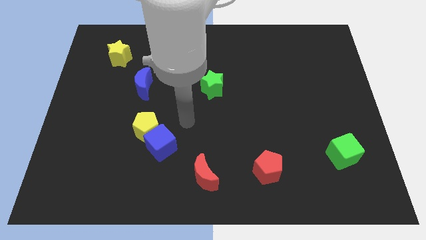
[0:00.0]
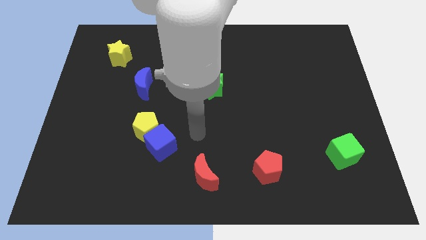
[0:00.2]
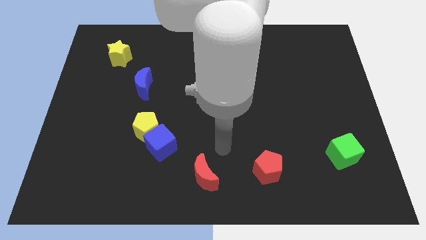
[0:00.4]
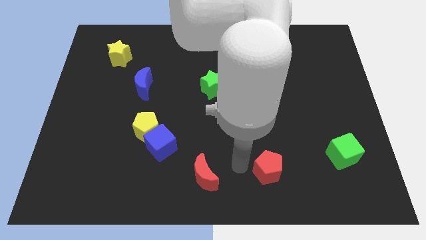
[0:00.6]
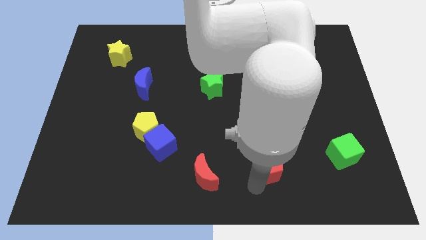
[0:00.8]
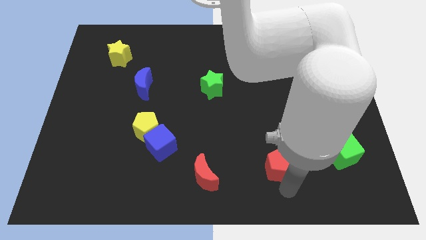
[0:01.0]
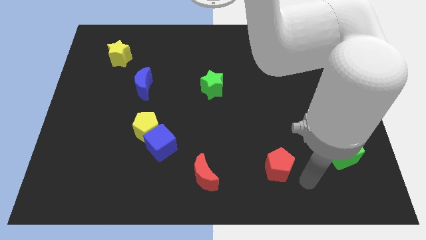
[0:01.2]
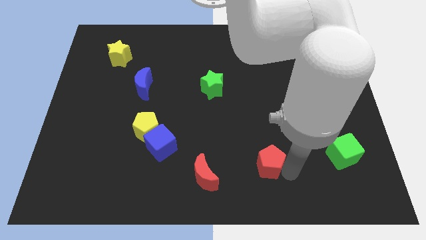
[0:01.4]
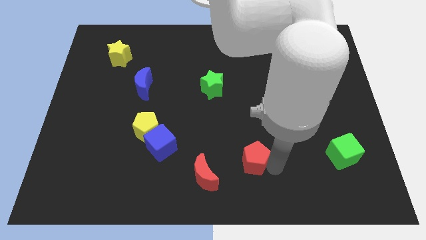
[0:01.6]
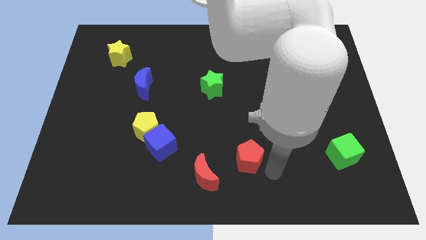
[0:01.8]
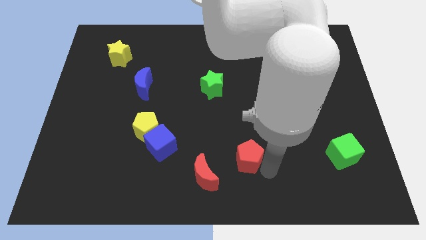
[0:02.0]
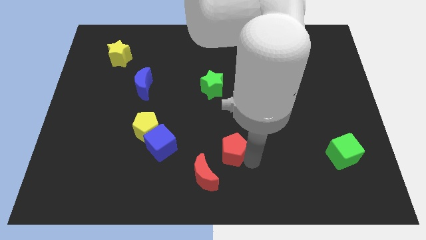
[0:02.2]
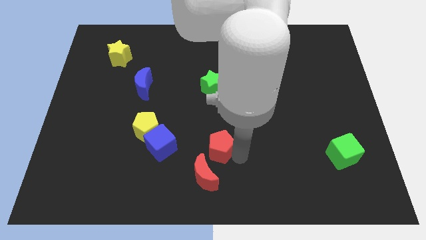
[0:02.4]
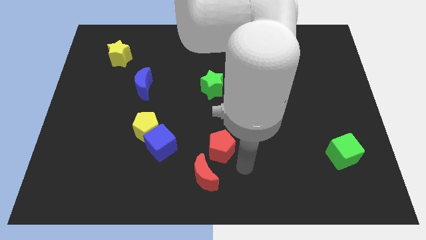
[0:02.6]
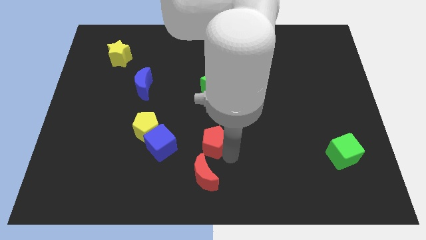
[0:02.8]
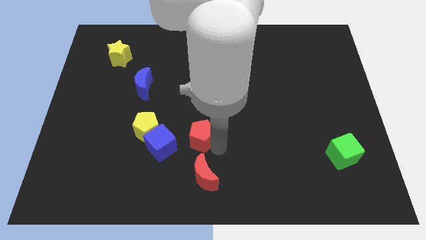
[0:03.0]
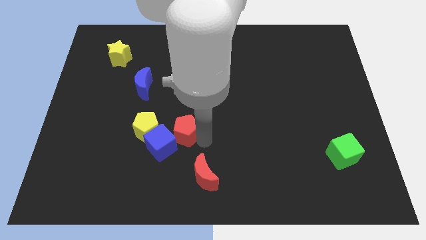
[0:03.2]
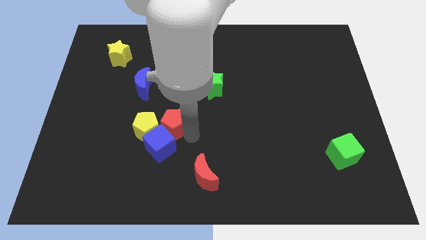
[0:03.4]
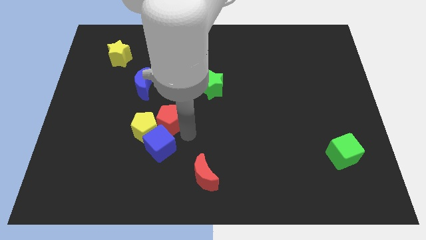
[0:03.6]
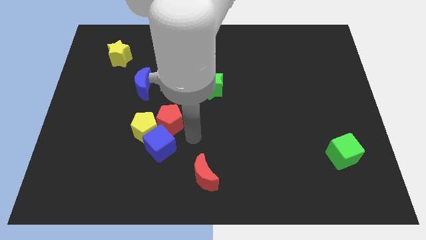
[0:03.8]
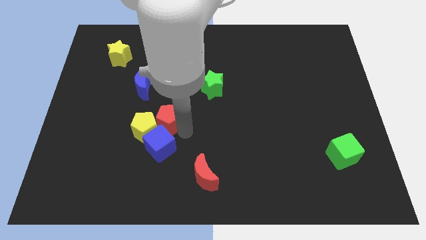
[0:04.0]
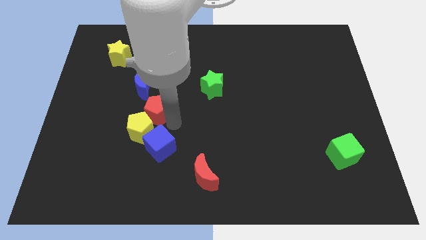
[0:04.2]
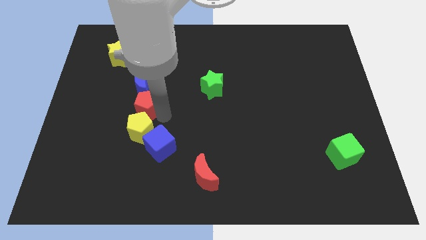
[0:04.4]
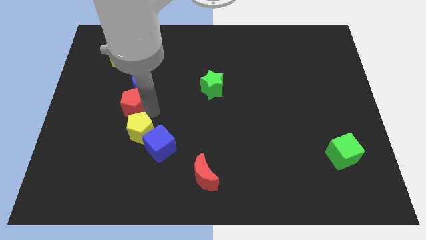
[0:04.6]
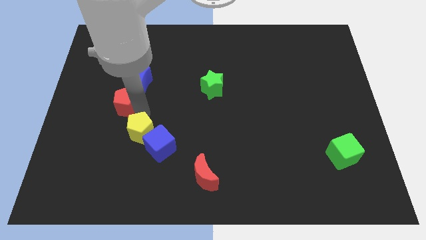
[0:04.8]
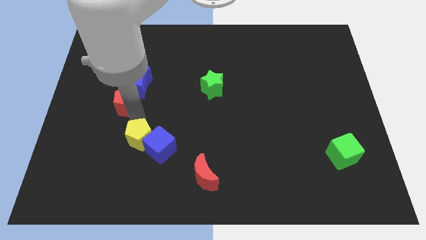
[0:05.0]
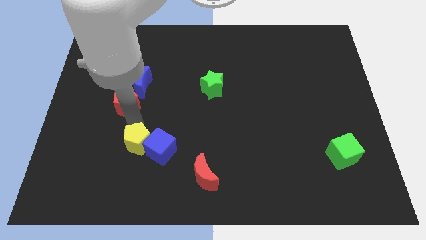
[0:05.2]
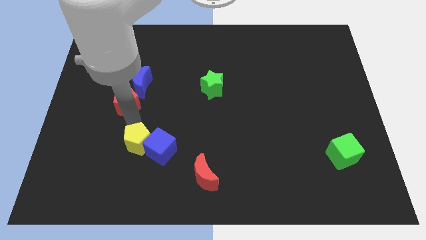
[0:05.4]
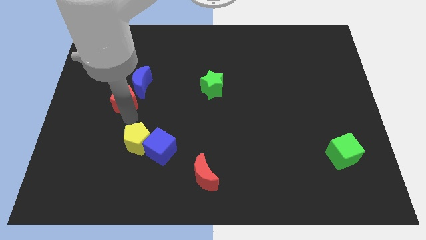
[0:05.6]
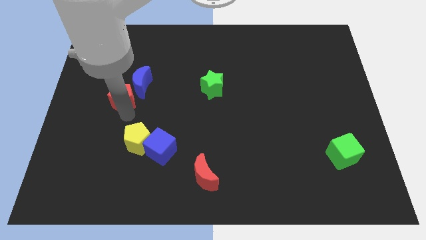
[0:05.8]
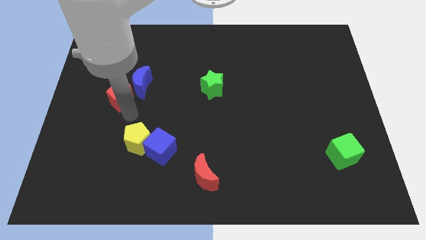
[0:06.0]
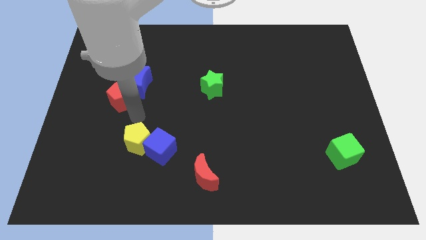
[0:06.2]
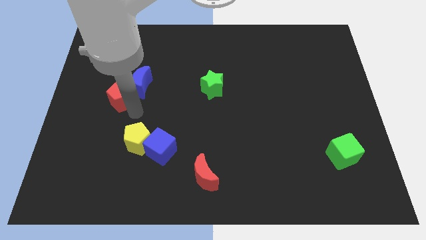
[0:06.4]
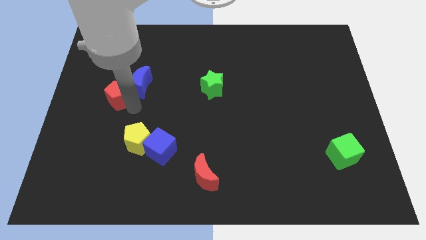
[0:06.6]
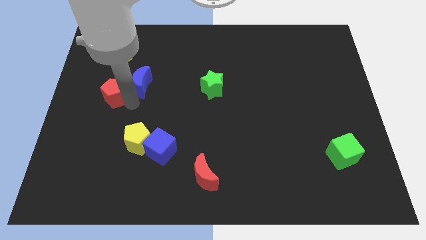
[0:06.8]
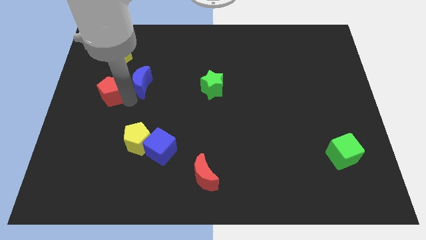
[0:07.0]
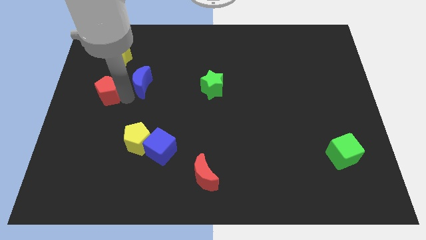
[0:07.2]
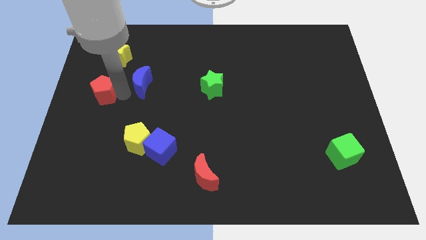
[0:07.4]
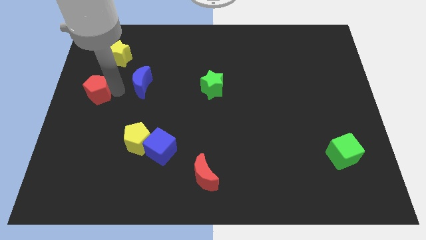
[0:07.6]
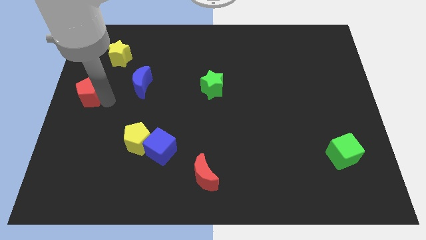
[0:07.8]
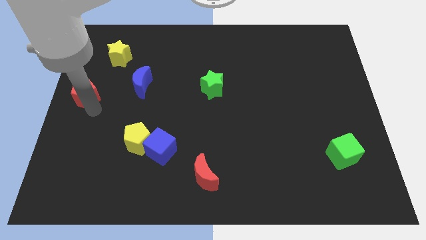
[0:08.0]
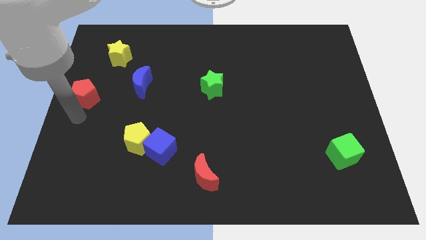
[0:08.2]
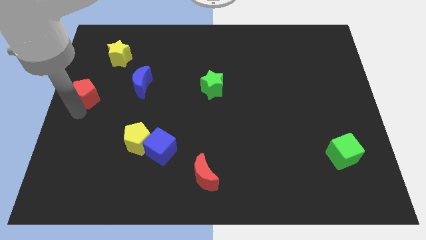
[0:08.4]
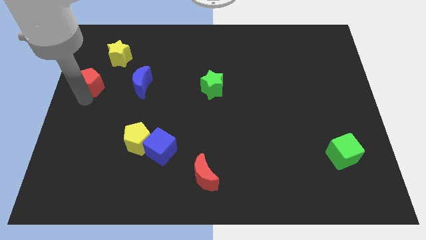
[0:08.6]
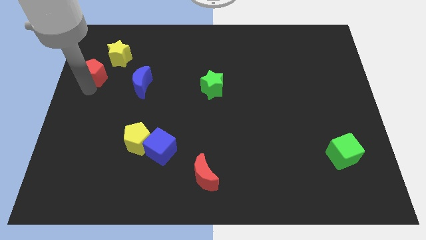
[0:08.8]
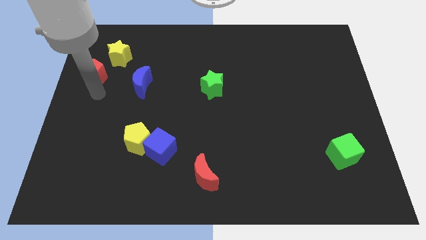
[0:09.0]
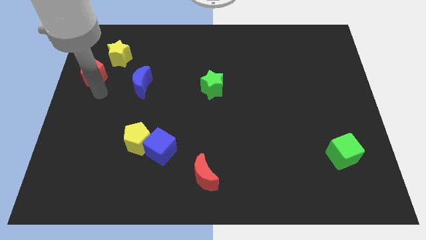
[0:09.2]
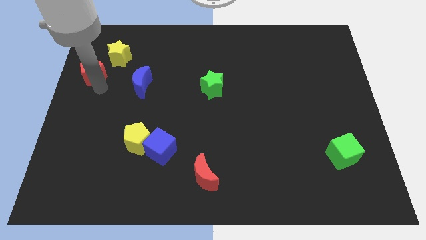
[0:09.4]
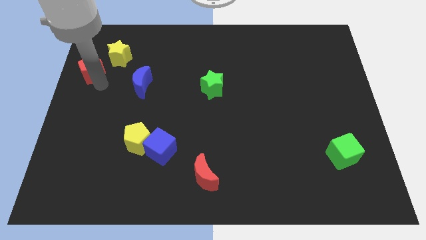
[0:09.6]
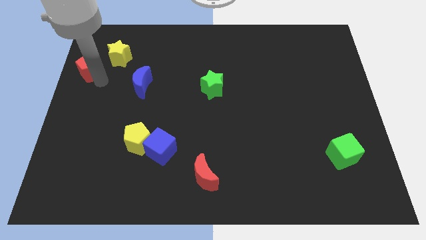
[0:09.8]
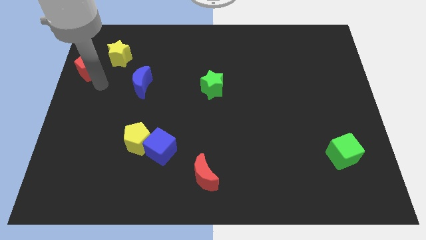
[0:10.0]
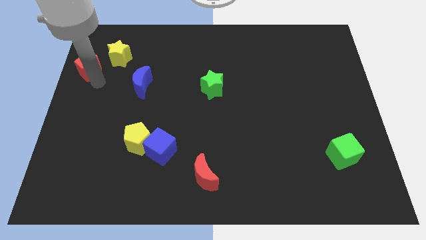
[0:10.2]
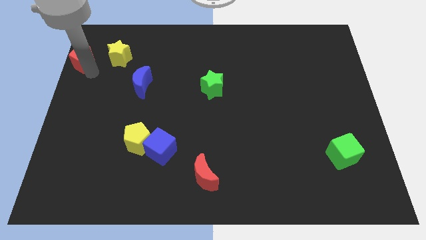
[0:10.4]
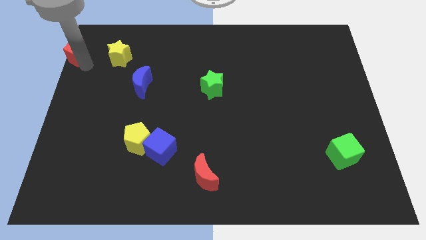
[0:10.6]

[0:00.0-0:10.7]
slide the red pentagon to the top left corner

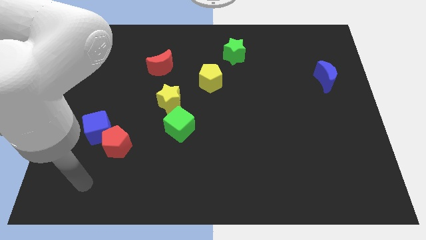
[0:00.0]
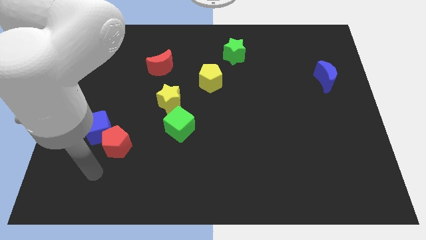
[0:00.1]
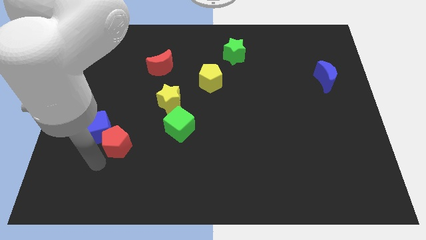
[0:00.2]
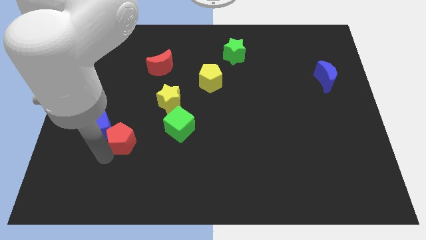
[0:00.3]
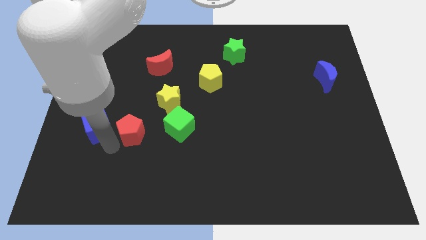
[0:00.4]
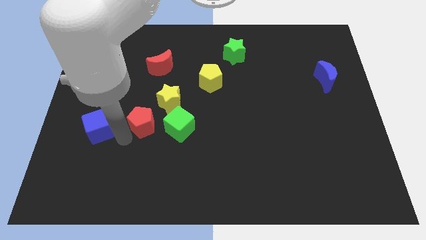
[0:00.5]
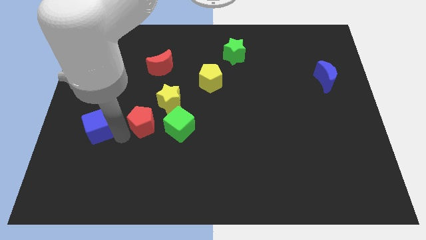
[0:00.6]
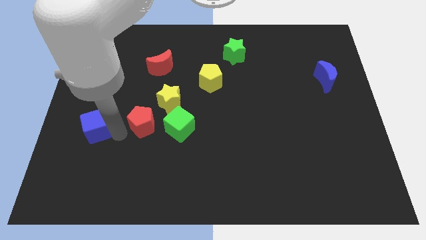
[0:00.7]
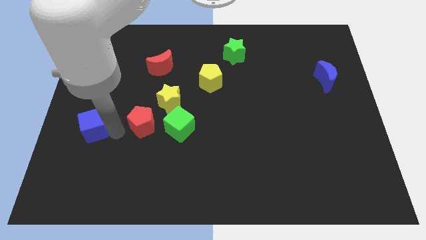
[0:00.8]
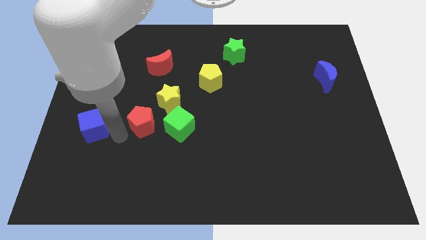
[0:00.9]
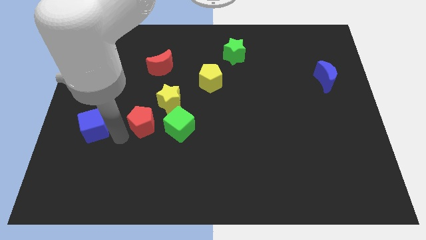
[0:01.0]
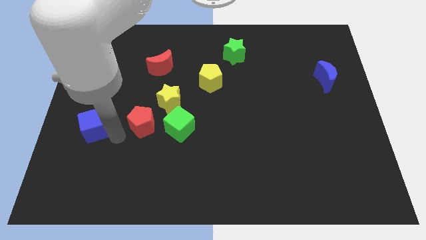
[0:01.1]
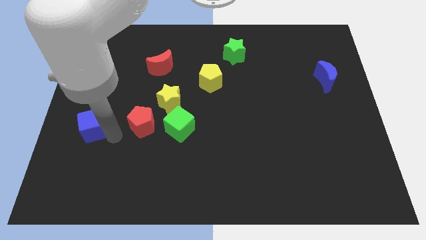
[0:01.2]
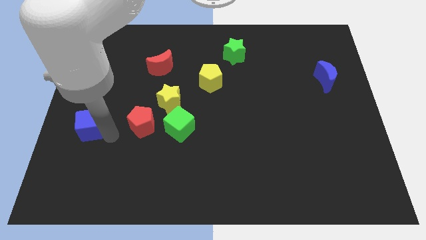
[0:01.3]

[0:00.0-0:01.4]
put the blue cube to the left side of the board
